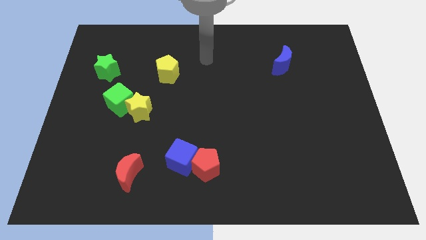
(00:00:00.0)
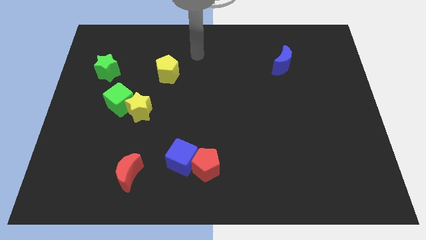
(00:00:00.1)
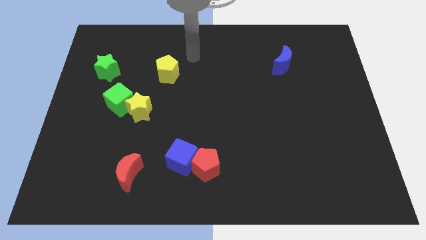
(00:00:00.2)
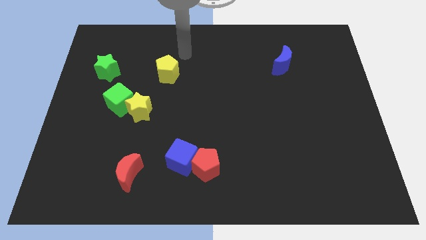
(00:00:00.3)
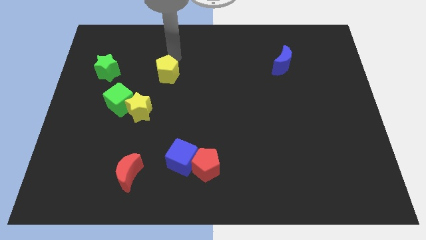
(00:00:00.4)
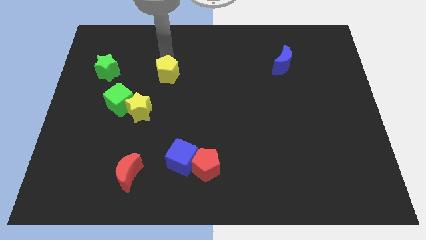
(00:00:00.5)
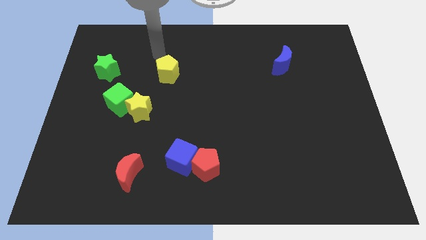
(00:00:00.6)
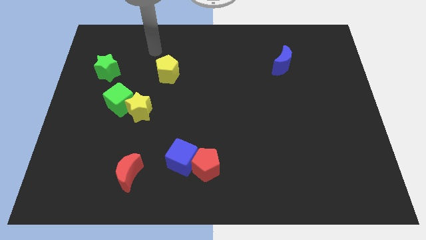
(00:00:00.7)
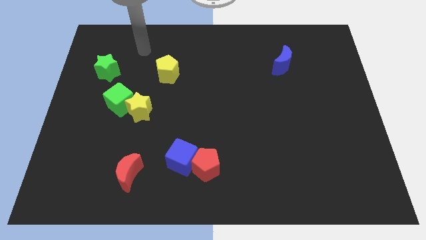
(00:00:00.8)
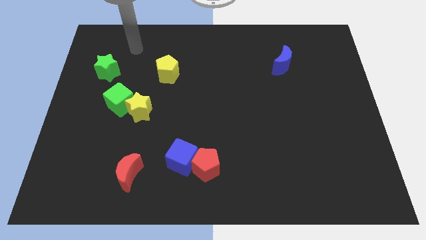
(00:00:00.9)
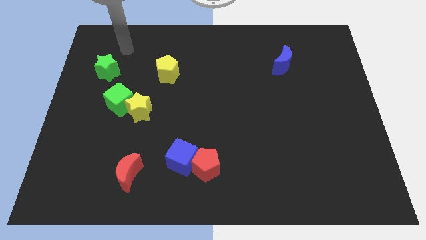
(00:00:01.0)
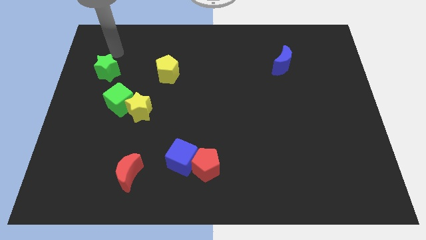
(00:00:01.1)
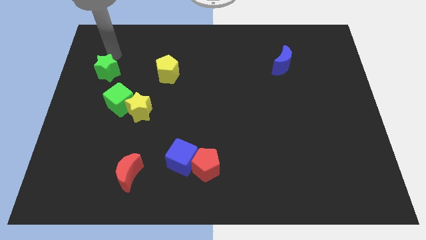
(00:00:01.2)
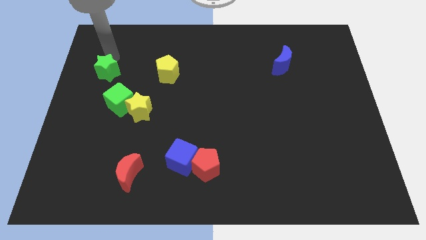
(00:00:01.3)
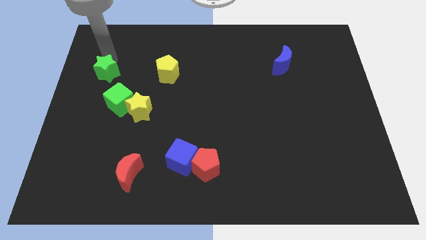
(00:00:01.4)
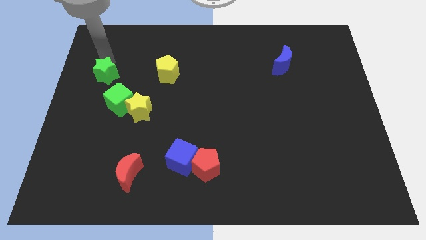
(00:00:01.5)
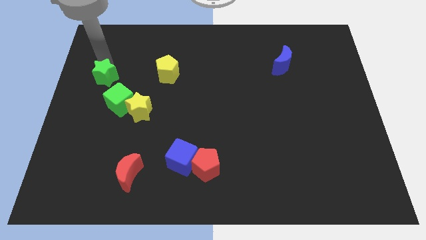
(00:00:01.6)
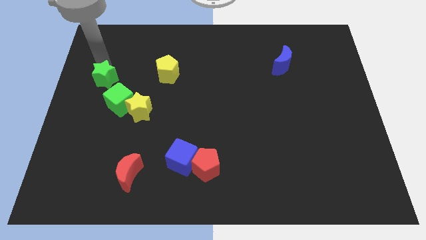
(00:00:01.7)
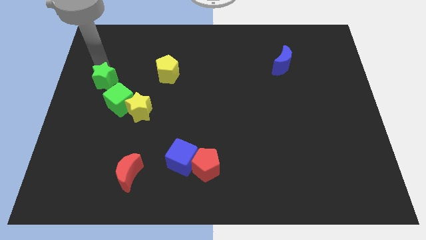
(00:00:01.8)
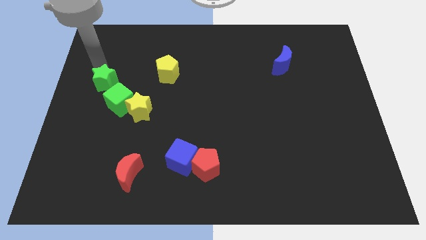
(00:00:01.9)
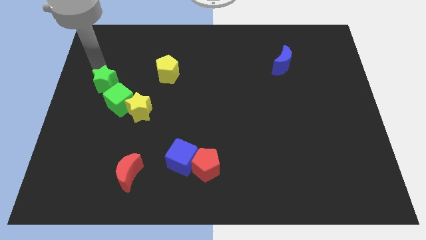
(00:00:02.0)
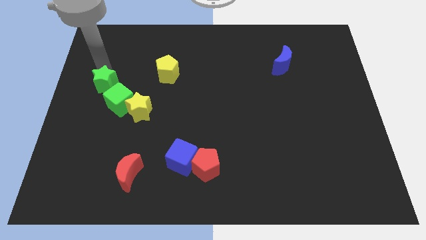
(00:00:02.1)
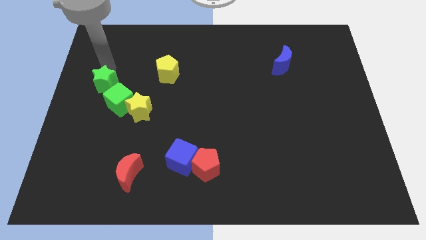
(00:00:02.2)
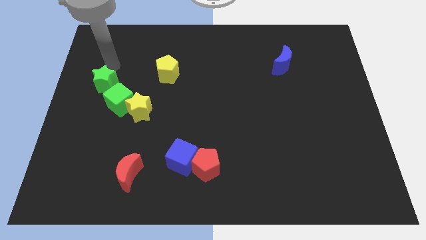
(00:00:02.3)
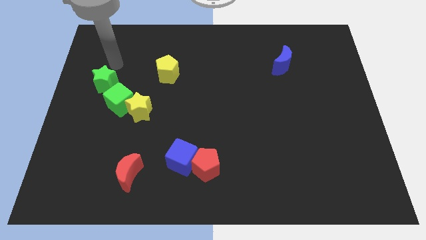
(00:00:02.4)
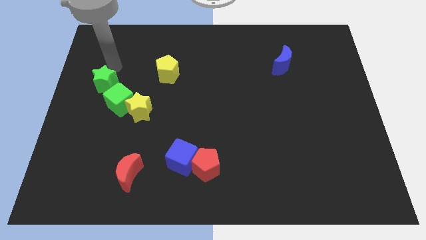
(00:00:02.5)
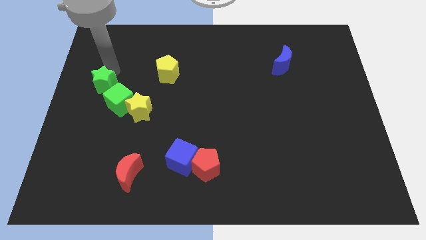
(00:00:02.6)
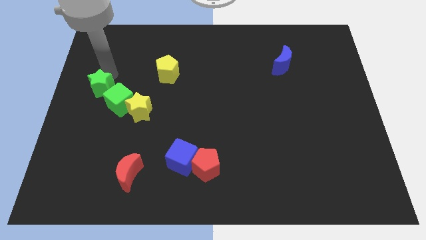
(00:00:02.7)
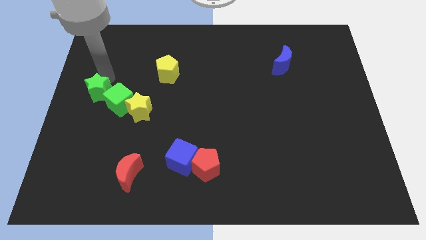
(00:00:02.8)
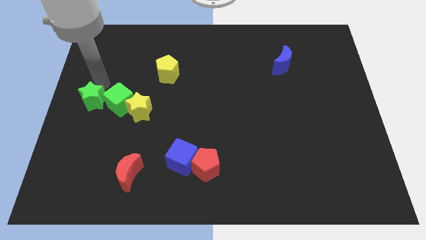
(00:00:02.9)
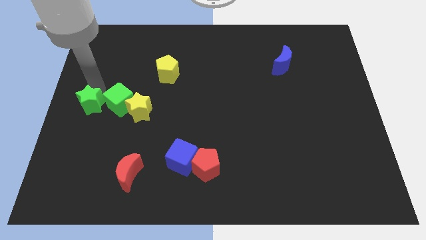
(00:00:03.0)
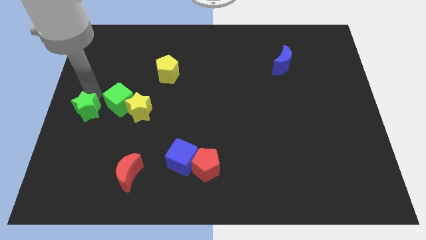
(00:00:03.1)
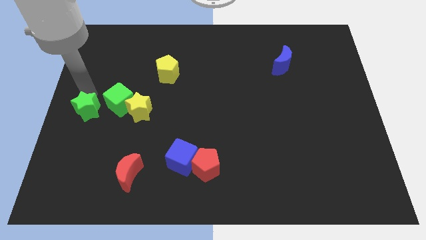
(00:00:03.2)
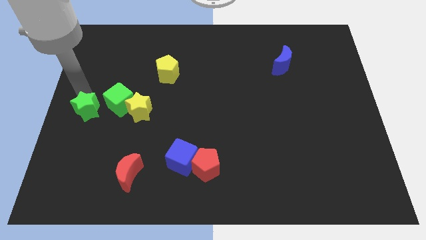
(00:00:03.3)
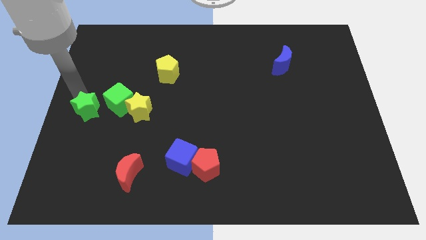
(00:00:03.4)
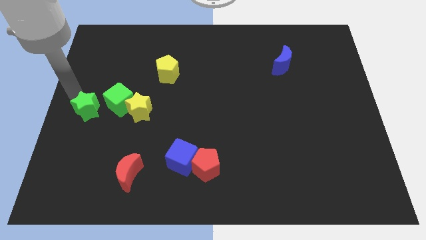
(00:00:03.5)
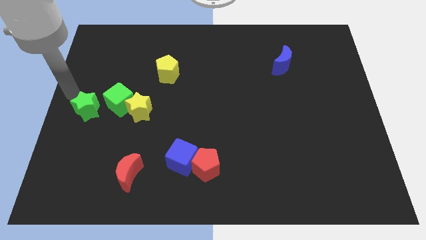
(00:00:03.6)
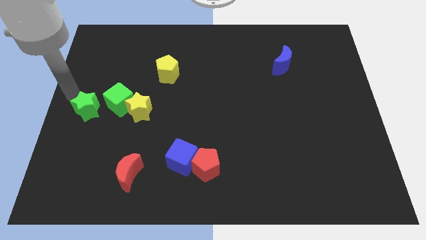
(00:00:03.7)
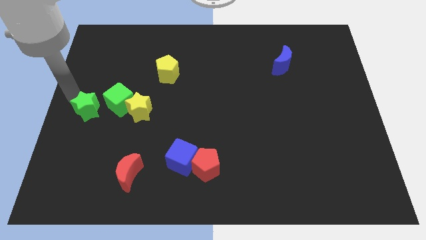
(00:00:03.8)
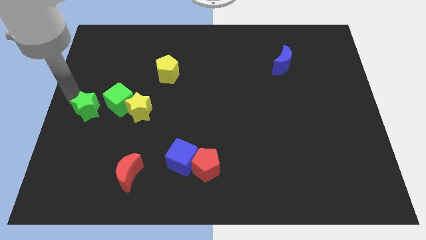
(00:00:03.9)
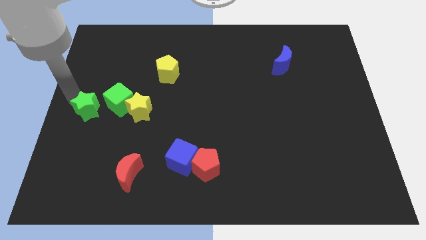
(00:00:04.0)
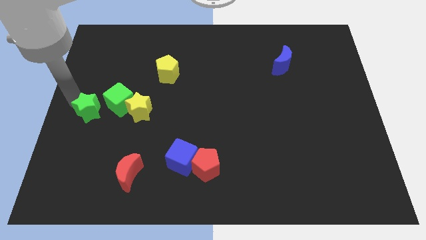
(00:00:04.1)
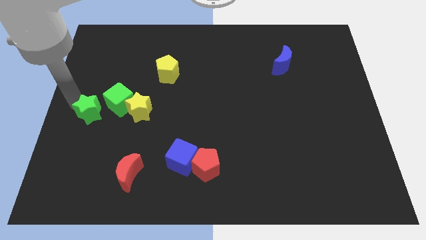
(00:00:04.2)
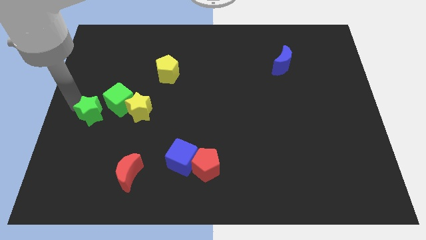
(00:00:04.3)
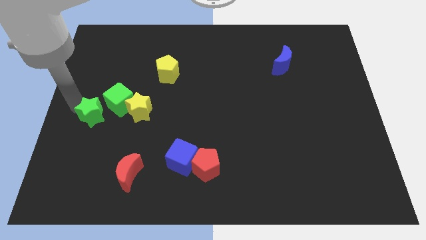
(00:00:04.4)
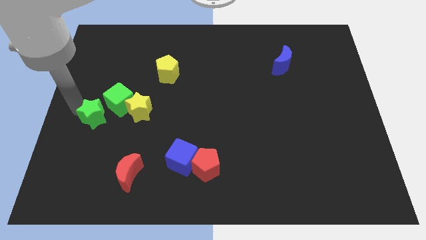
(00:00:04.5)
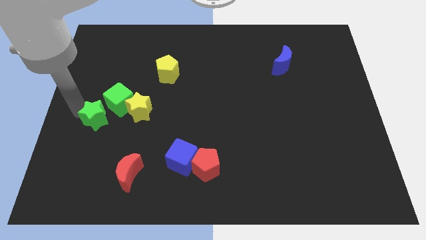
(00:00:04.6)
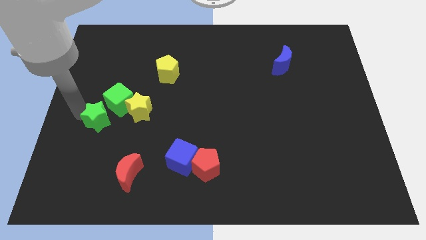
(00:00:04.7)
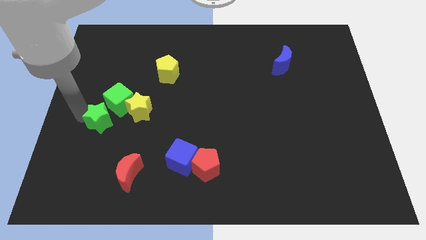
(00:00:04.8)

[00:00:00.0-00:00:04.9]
slide the green star to the bottom left side of the yellow star

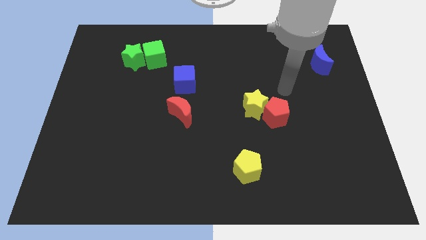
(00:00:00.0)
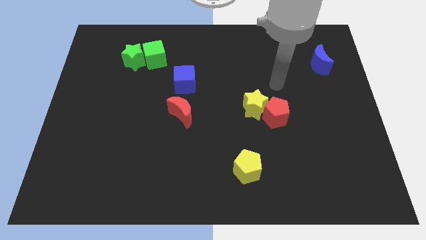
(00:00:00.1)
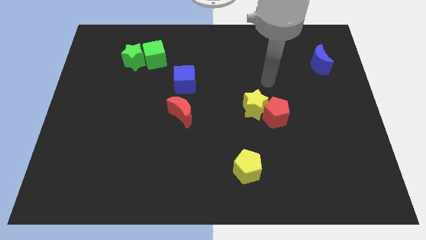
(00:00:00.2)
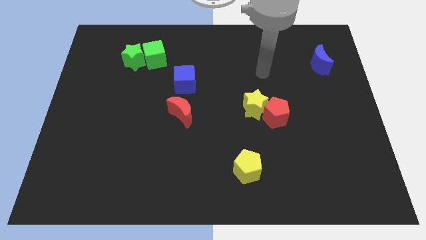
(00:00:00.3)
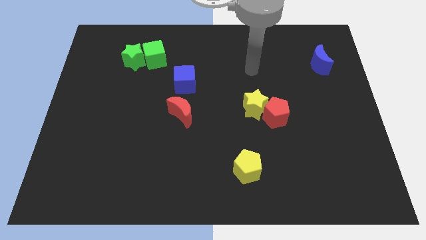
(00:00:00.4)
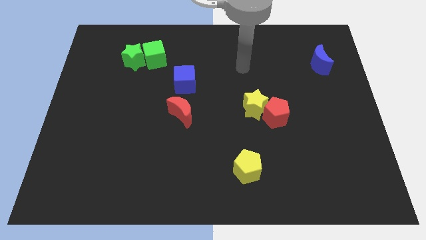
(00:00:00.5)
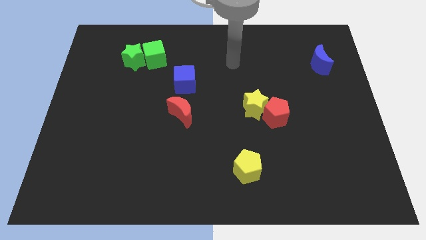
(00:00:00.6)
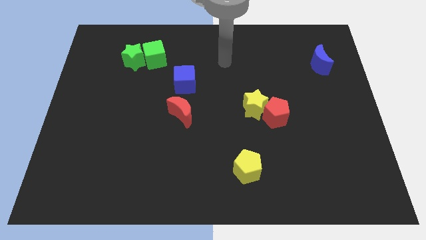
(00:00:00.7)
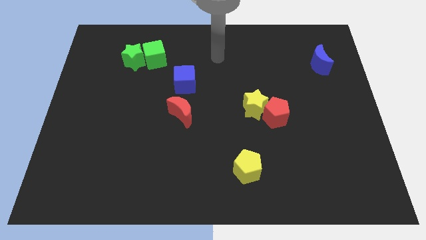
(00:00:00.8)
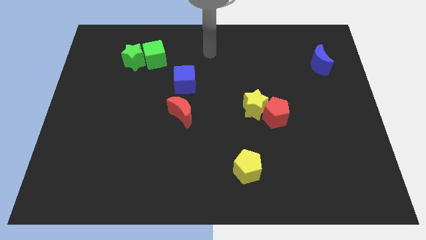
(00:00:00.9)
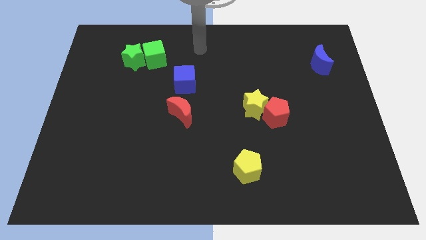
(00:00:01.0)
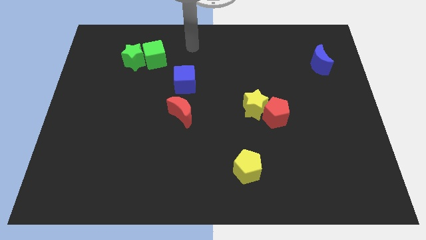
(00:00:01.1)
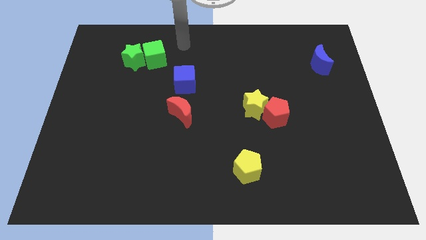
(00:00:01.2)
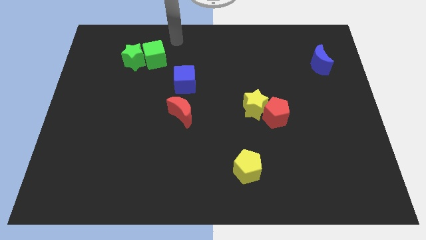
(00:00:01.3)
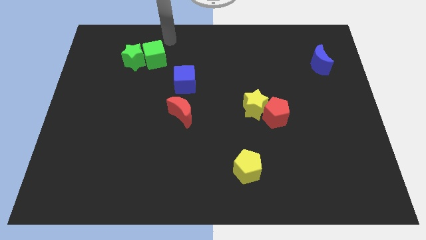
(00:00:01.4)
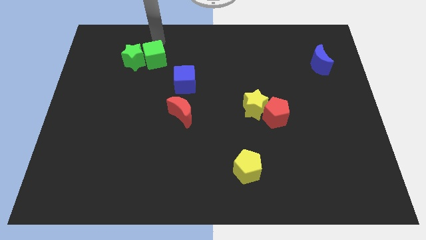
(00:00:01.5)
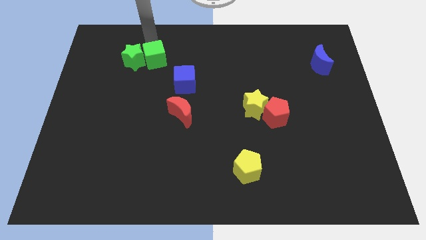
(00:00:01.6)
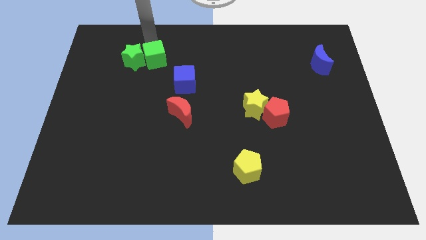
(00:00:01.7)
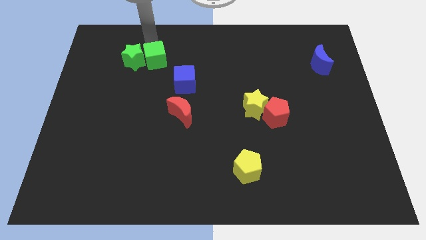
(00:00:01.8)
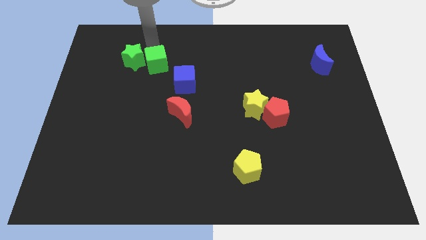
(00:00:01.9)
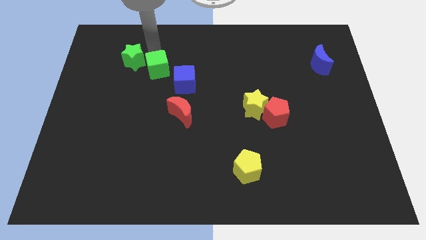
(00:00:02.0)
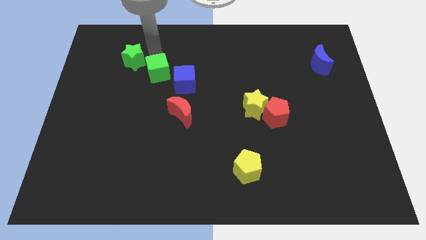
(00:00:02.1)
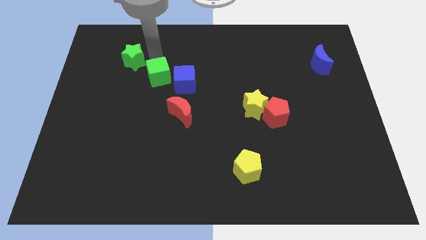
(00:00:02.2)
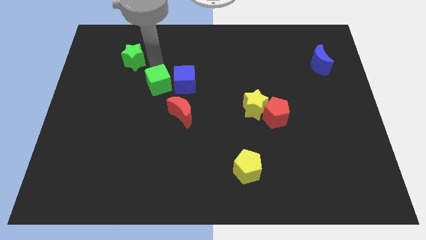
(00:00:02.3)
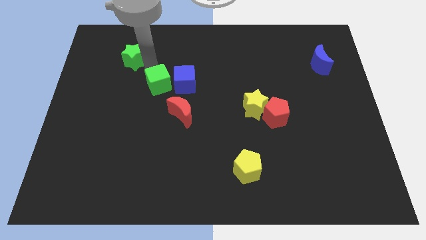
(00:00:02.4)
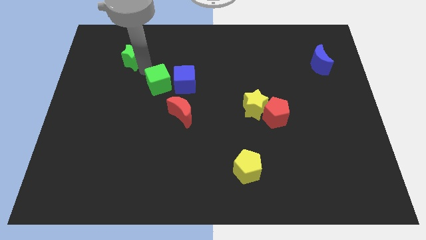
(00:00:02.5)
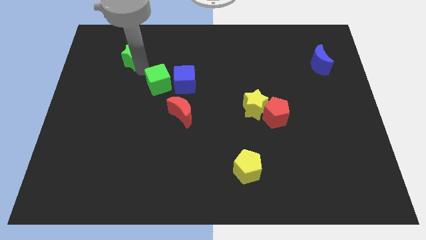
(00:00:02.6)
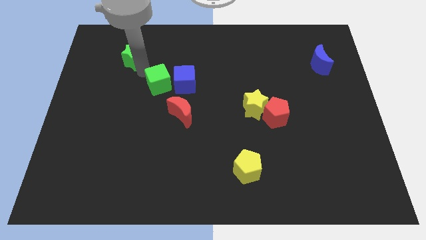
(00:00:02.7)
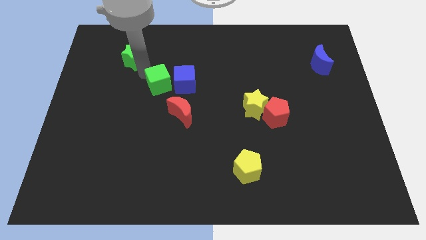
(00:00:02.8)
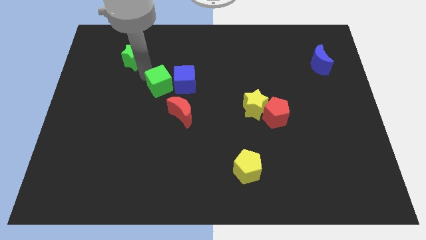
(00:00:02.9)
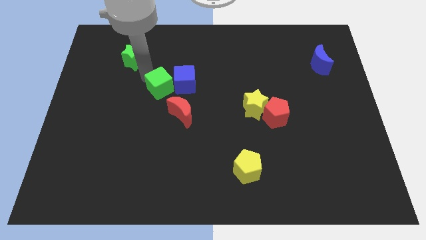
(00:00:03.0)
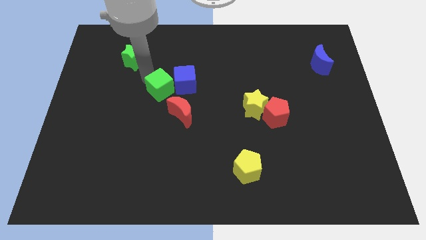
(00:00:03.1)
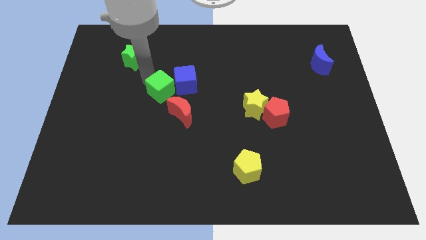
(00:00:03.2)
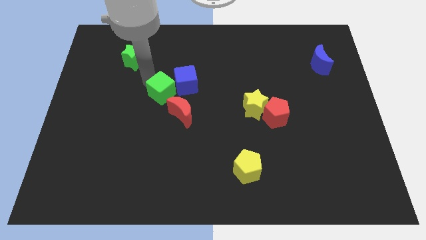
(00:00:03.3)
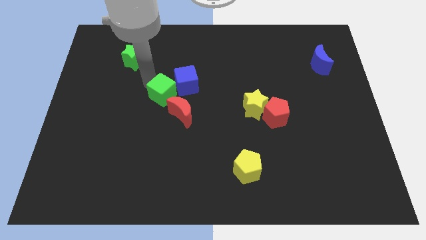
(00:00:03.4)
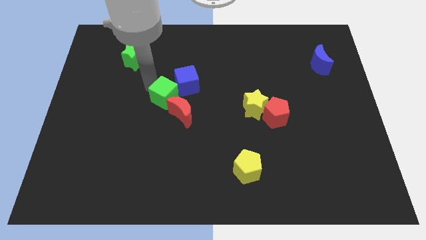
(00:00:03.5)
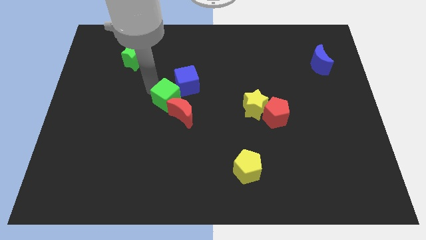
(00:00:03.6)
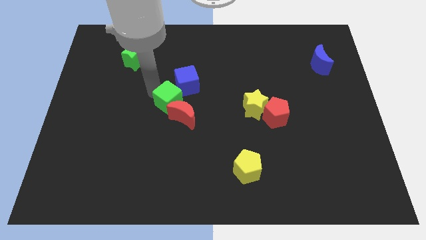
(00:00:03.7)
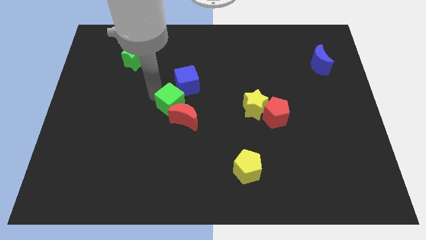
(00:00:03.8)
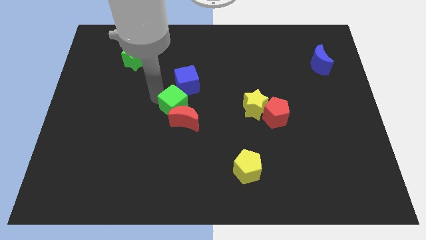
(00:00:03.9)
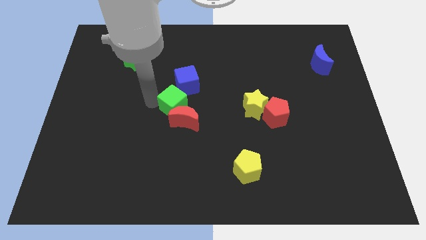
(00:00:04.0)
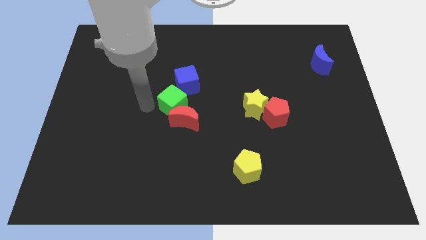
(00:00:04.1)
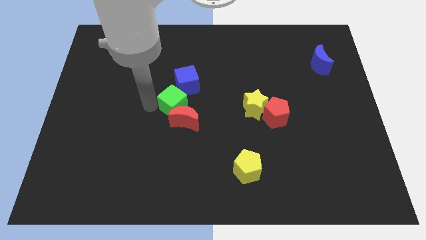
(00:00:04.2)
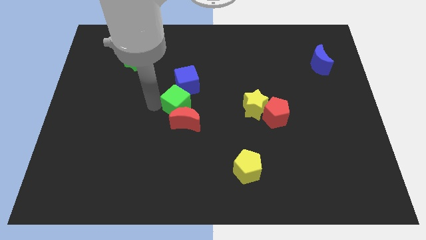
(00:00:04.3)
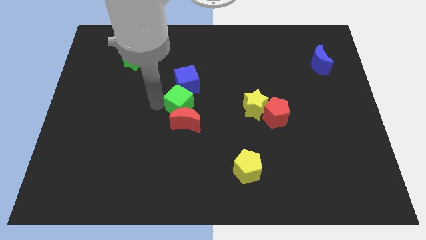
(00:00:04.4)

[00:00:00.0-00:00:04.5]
move the green cube diagonally up and to the right of the red moon
